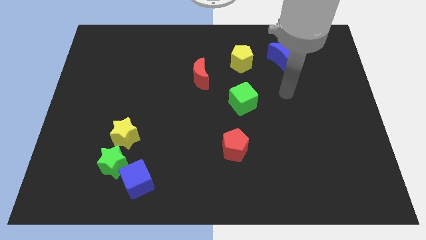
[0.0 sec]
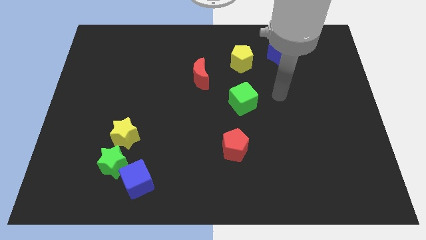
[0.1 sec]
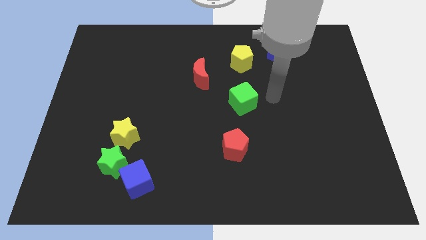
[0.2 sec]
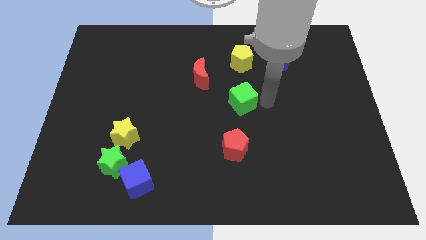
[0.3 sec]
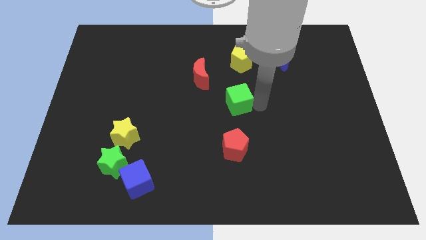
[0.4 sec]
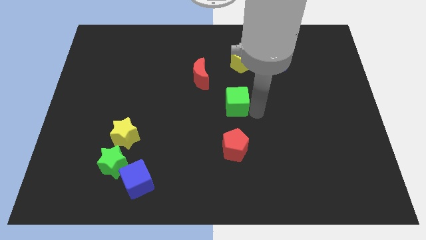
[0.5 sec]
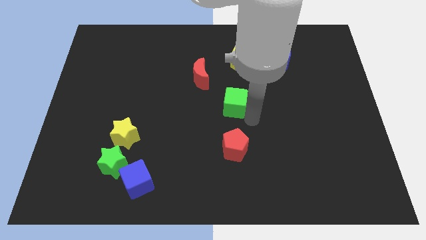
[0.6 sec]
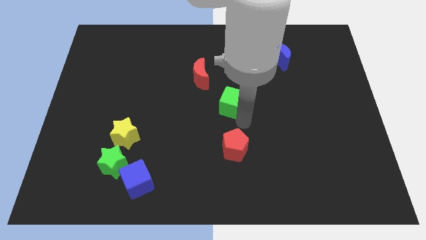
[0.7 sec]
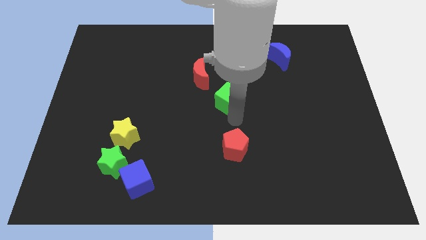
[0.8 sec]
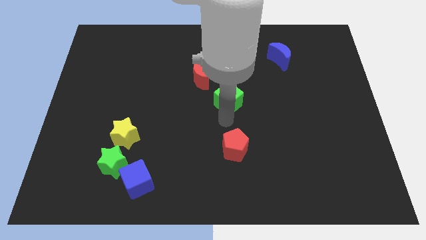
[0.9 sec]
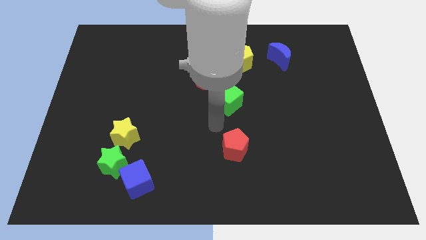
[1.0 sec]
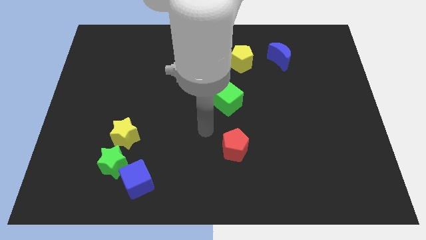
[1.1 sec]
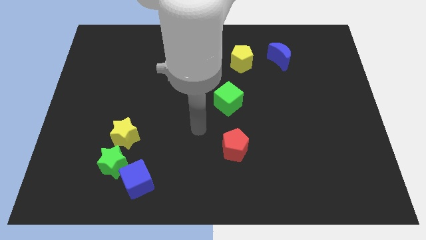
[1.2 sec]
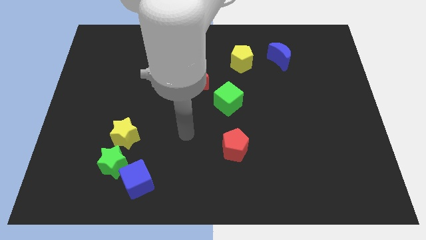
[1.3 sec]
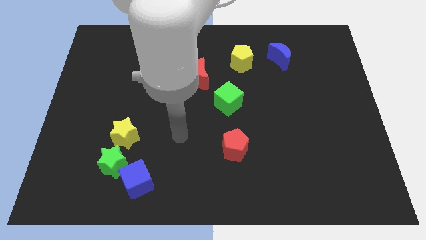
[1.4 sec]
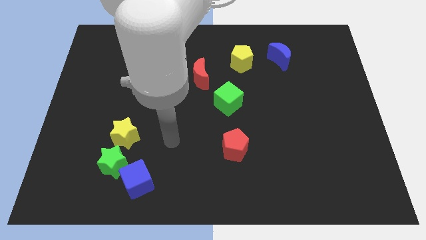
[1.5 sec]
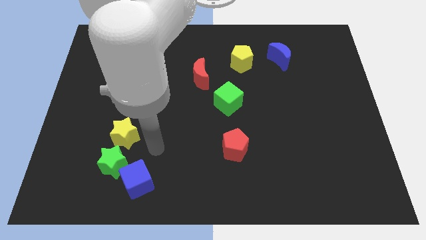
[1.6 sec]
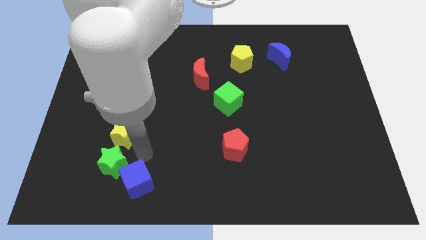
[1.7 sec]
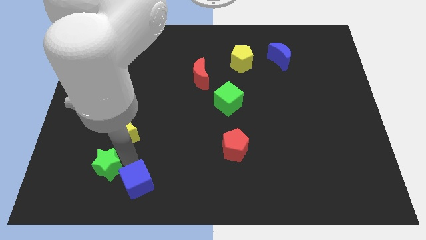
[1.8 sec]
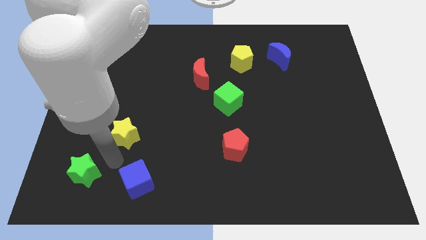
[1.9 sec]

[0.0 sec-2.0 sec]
move the yellow star away from the green star

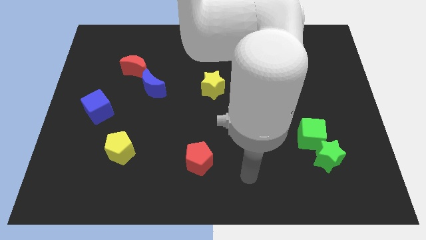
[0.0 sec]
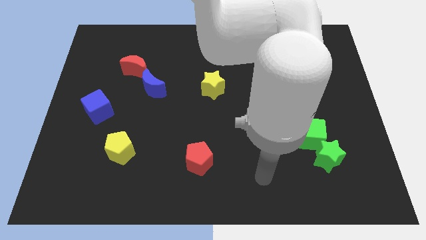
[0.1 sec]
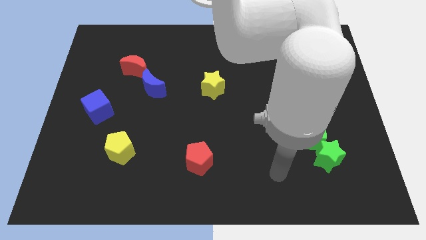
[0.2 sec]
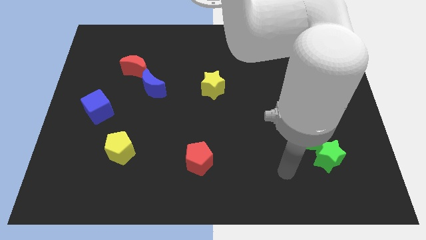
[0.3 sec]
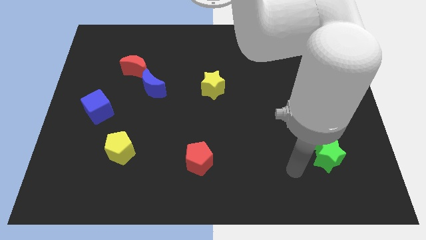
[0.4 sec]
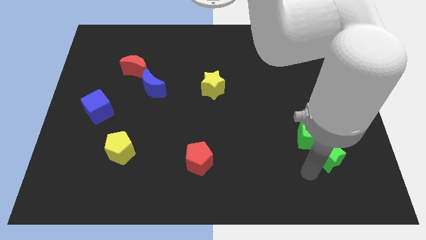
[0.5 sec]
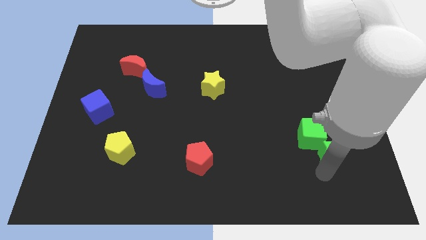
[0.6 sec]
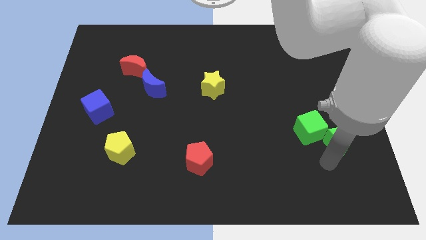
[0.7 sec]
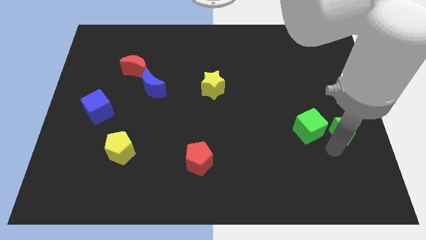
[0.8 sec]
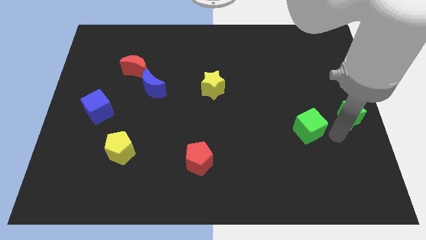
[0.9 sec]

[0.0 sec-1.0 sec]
pull the green cube apart from the green star

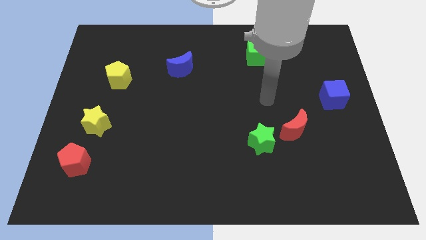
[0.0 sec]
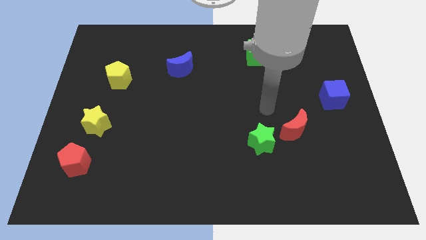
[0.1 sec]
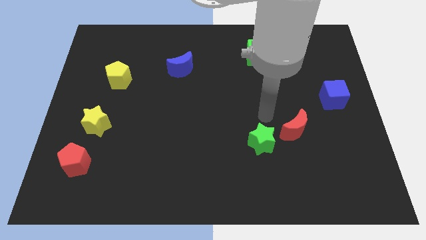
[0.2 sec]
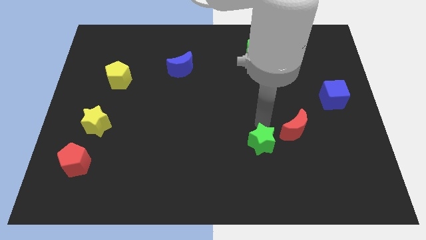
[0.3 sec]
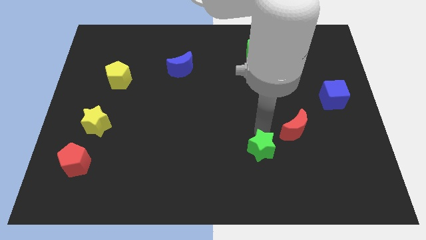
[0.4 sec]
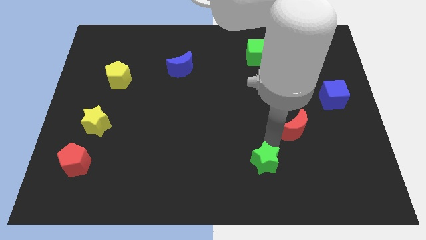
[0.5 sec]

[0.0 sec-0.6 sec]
pull the red moon apart from the green star

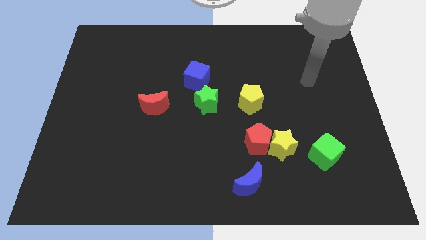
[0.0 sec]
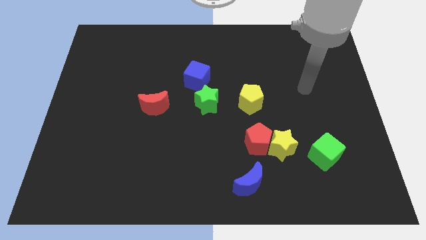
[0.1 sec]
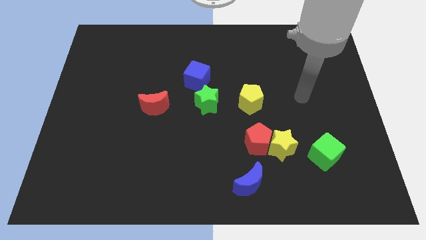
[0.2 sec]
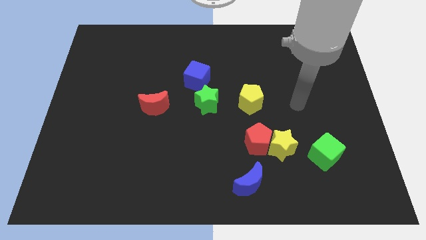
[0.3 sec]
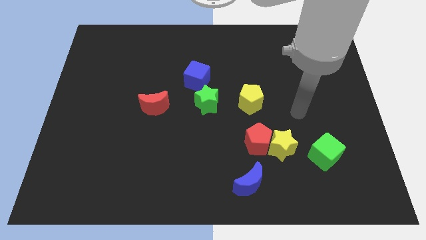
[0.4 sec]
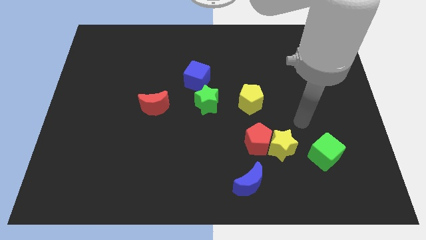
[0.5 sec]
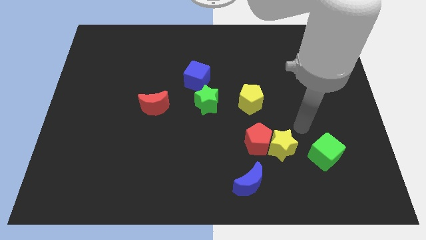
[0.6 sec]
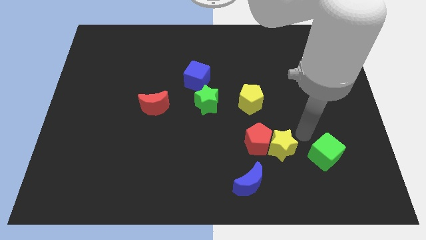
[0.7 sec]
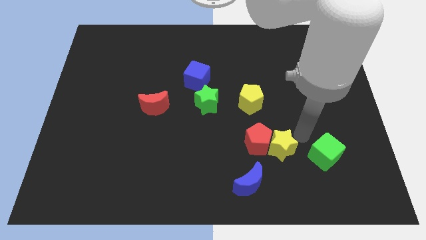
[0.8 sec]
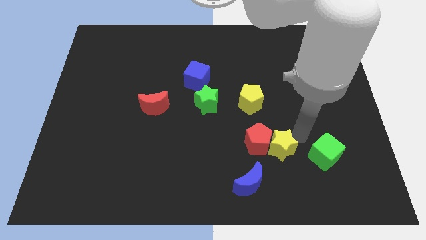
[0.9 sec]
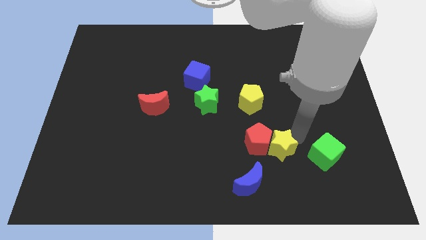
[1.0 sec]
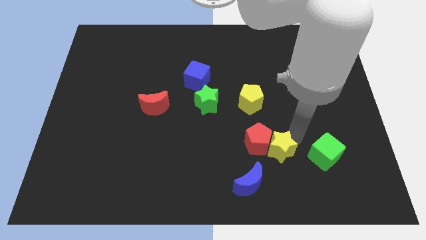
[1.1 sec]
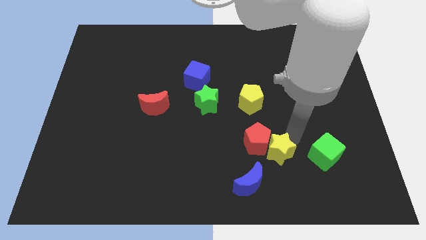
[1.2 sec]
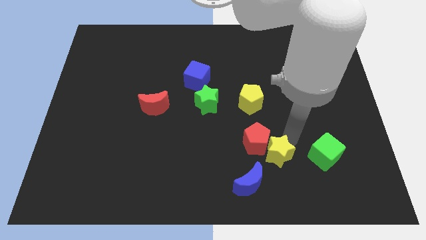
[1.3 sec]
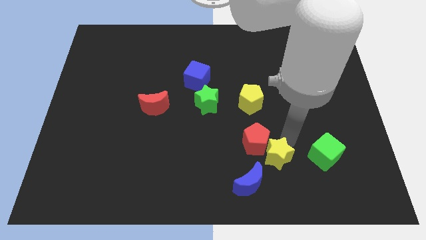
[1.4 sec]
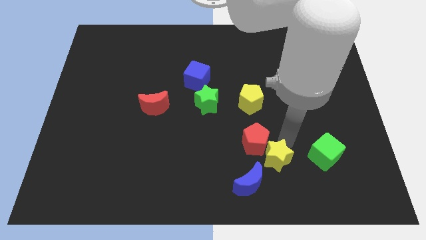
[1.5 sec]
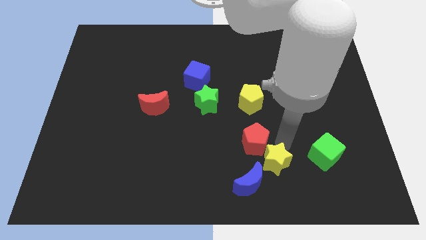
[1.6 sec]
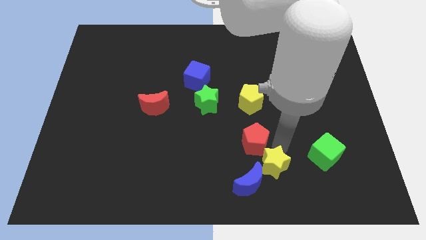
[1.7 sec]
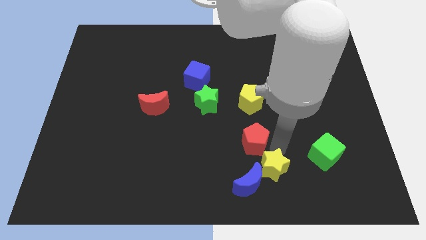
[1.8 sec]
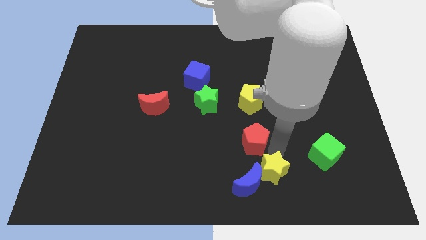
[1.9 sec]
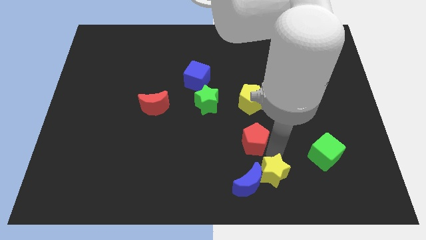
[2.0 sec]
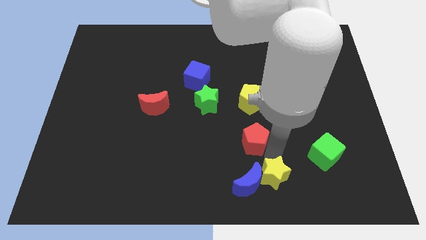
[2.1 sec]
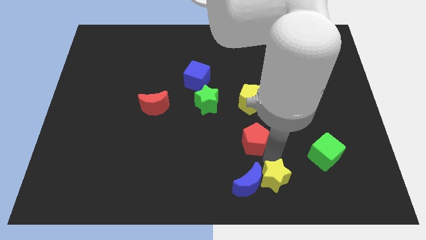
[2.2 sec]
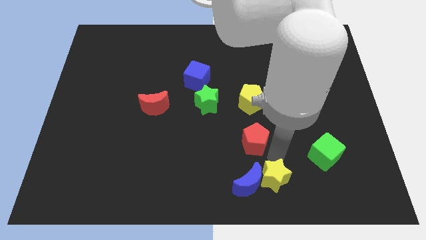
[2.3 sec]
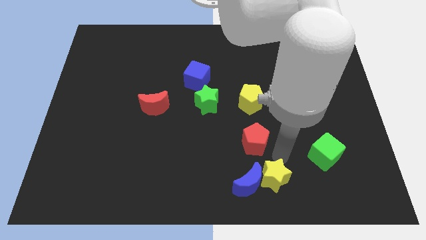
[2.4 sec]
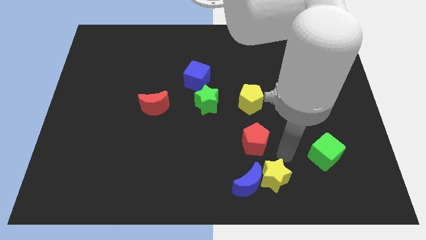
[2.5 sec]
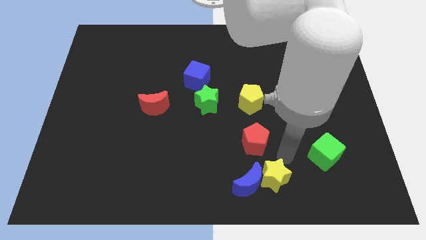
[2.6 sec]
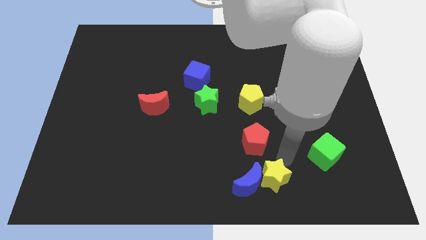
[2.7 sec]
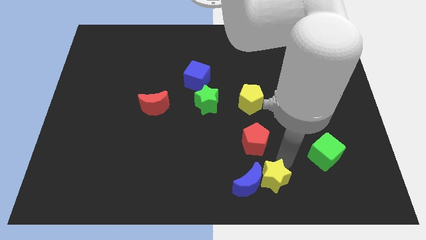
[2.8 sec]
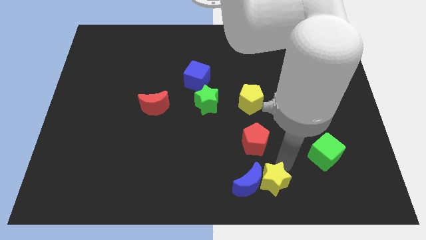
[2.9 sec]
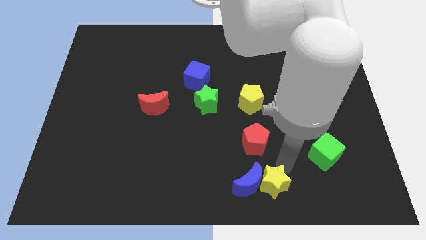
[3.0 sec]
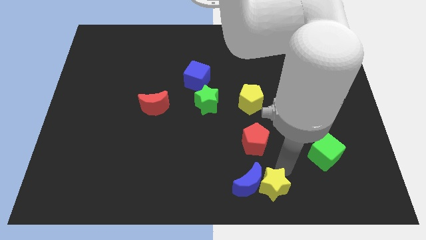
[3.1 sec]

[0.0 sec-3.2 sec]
pull the yellow star apart from the red pentagon and green cube

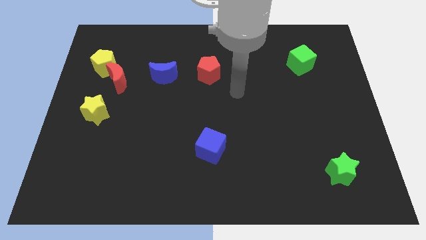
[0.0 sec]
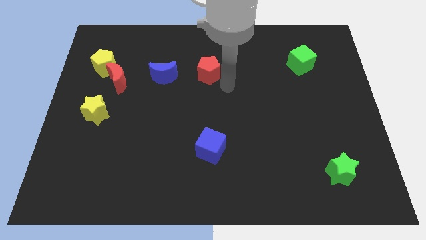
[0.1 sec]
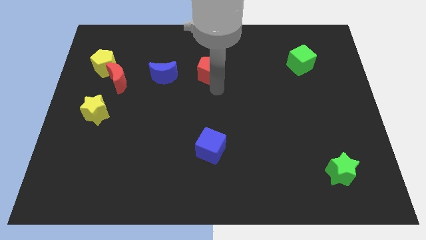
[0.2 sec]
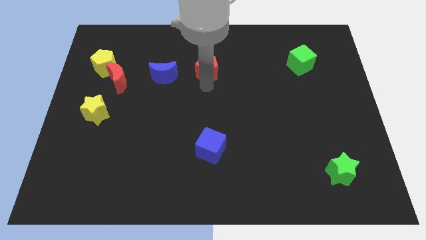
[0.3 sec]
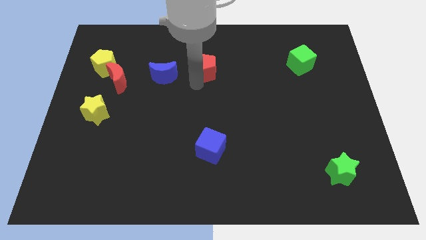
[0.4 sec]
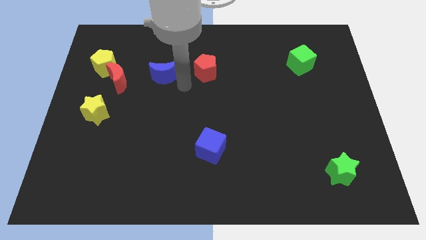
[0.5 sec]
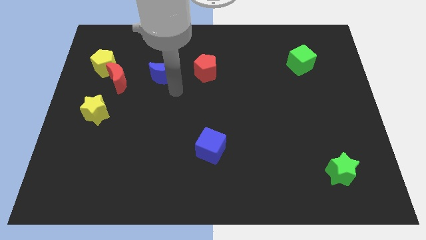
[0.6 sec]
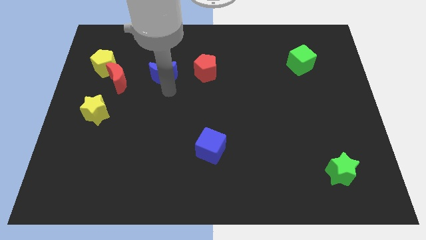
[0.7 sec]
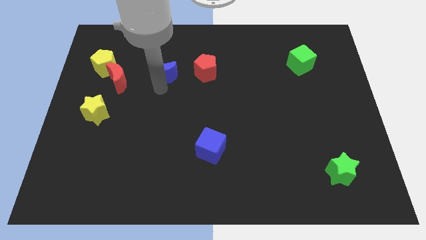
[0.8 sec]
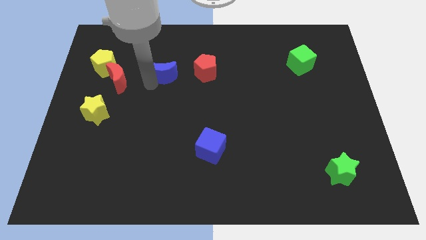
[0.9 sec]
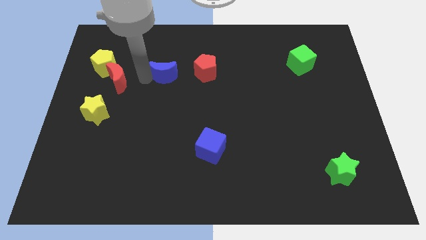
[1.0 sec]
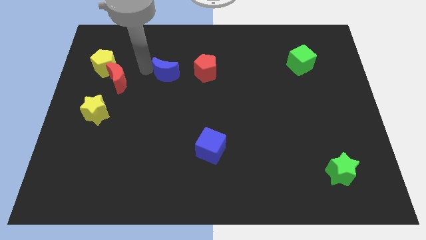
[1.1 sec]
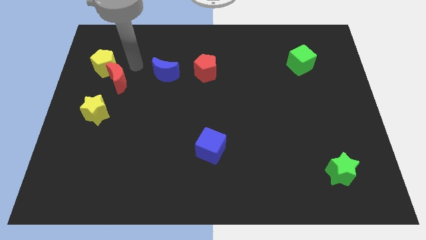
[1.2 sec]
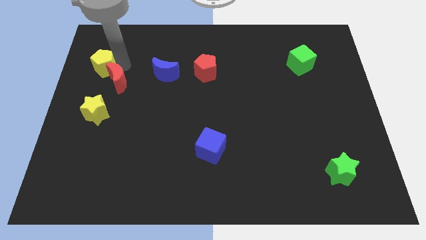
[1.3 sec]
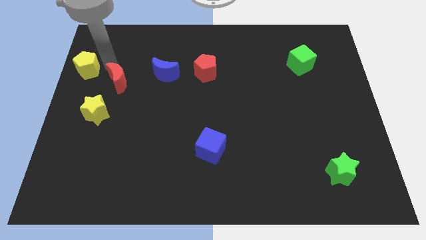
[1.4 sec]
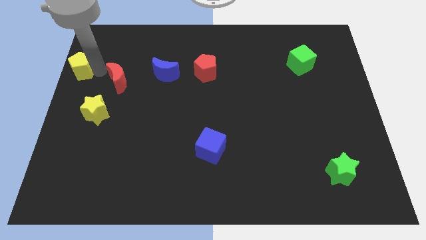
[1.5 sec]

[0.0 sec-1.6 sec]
move the red moon away from the yellow pentagon

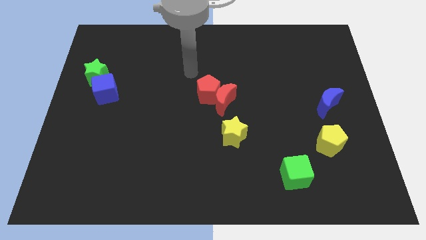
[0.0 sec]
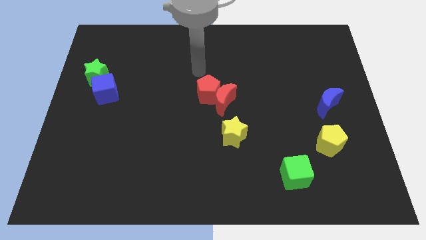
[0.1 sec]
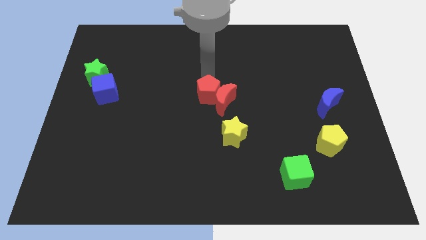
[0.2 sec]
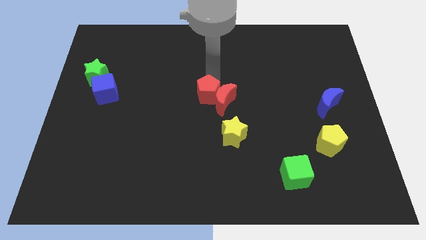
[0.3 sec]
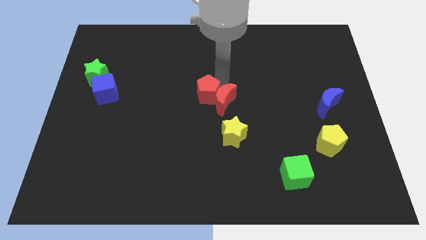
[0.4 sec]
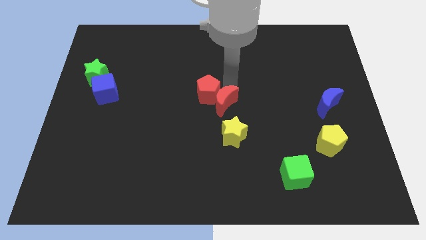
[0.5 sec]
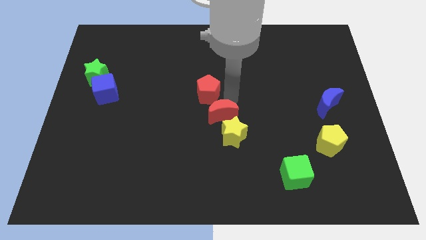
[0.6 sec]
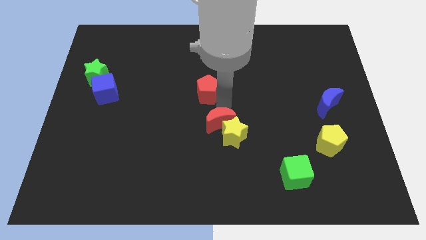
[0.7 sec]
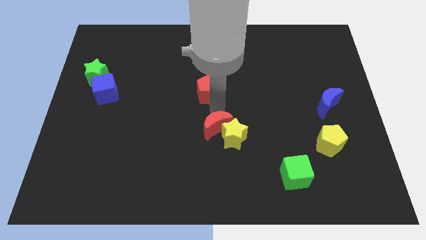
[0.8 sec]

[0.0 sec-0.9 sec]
move the red pentagon away from the red moon
